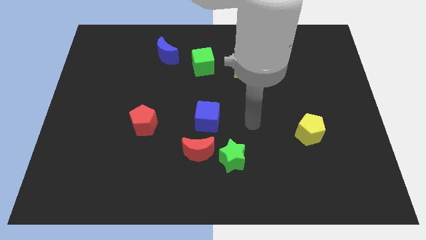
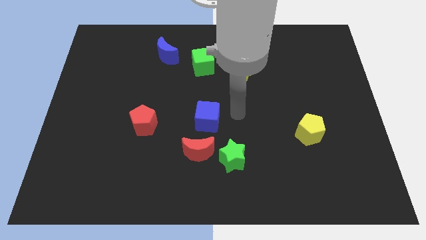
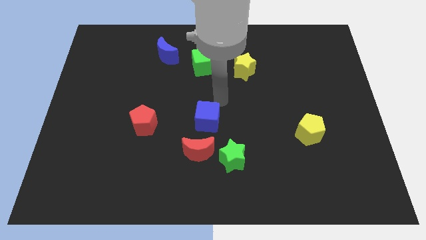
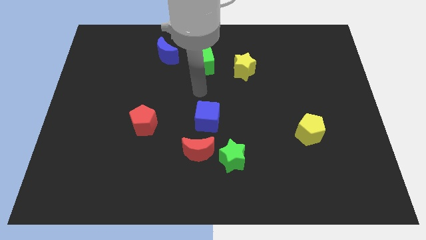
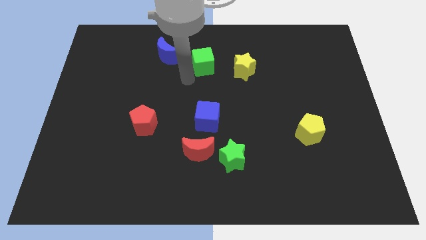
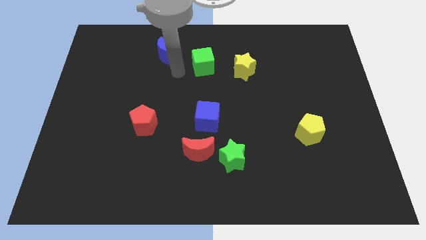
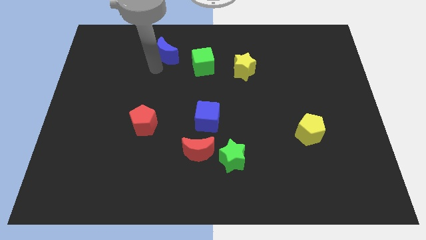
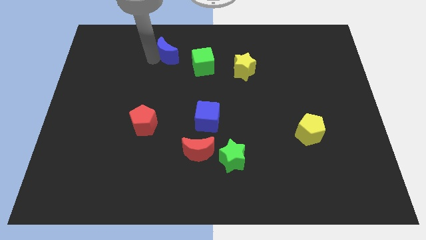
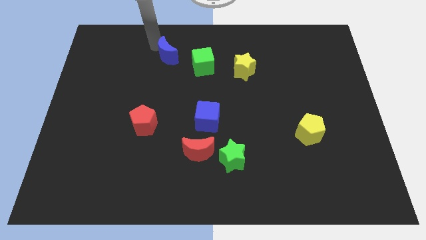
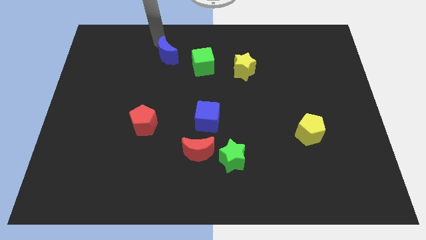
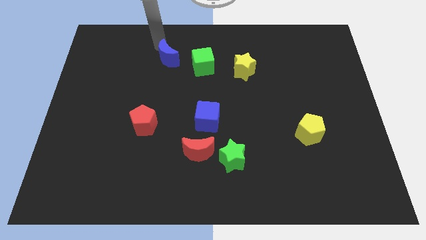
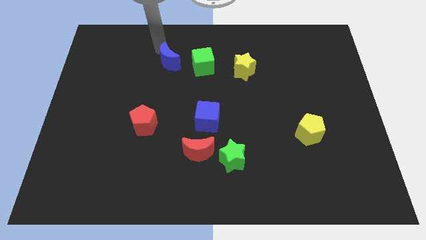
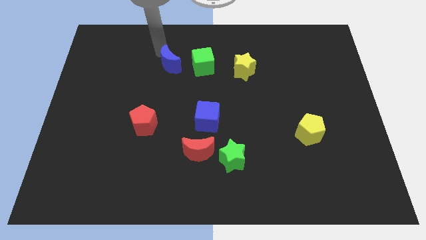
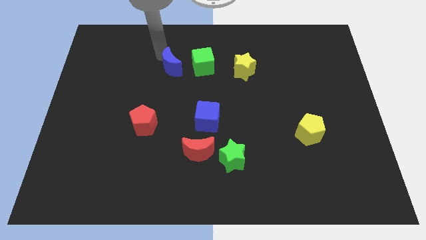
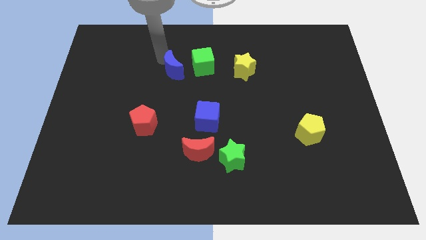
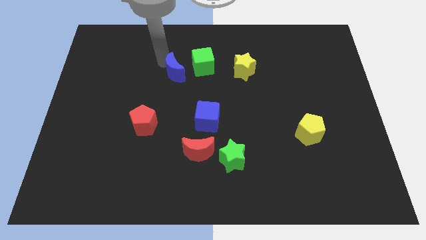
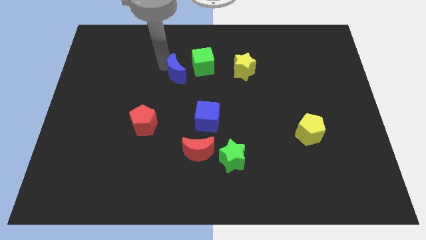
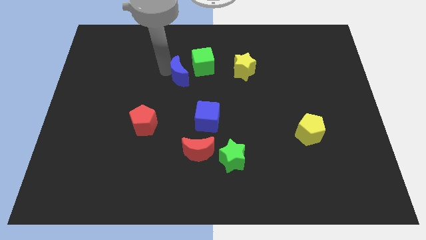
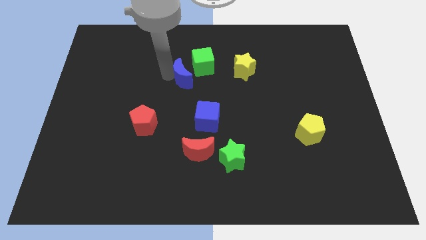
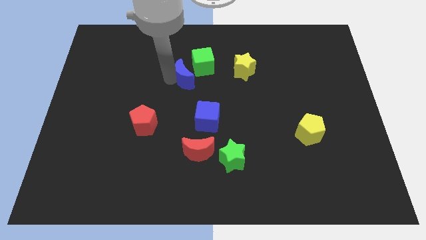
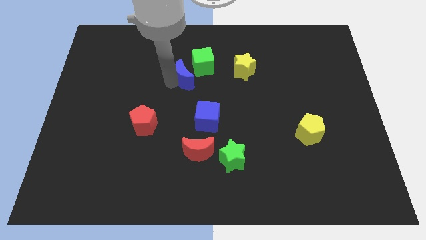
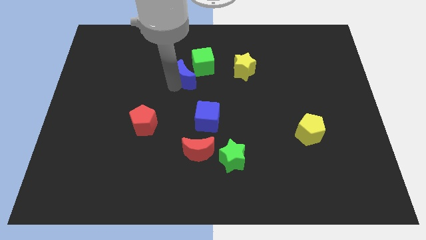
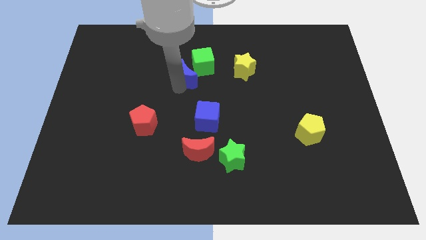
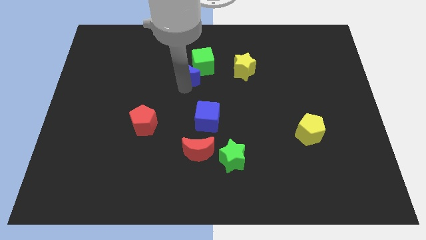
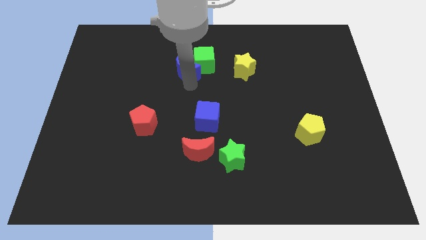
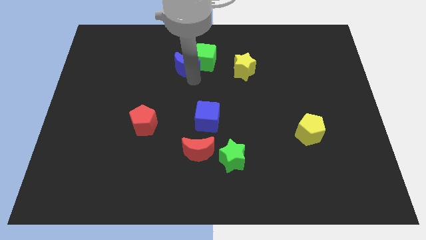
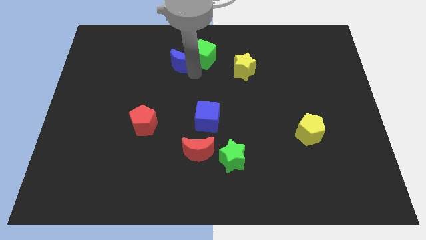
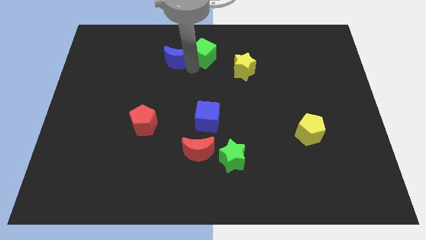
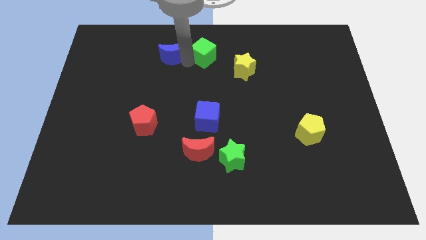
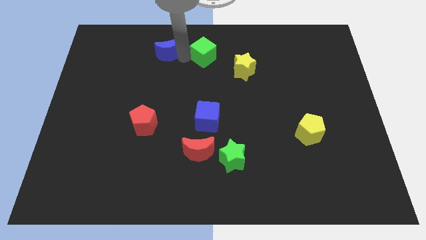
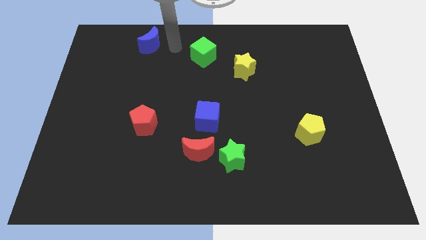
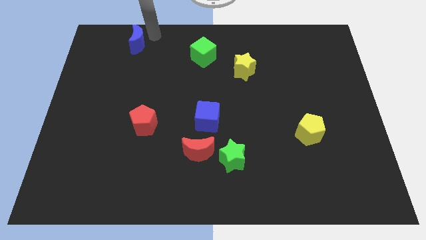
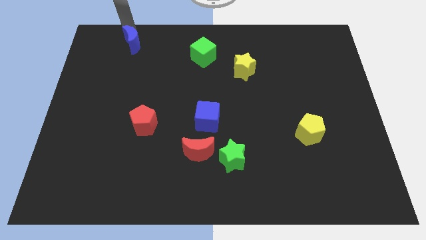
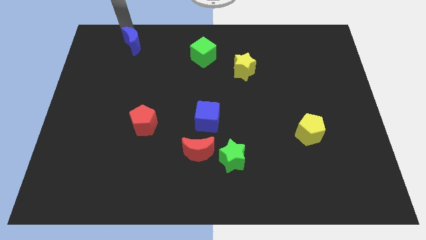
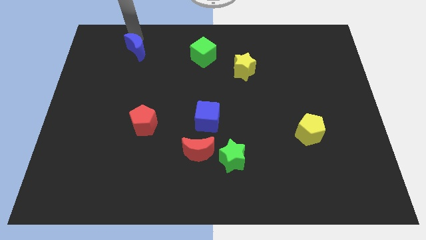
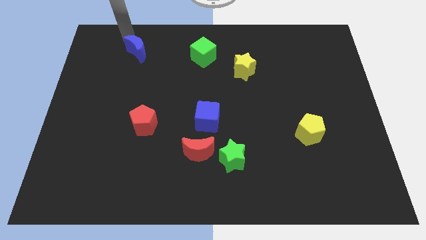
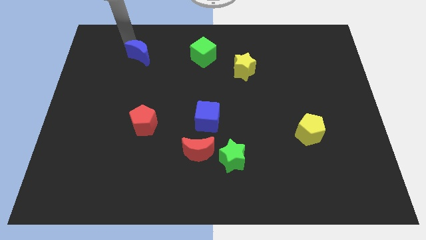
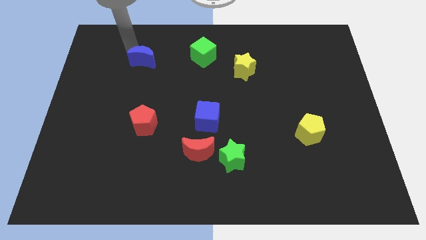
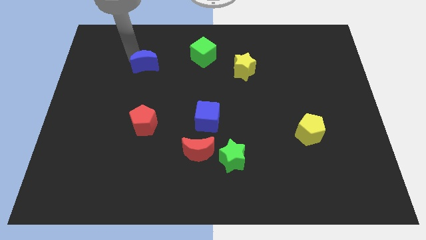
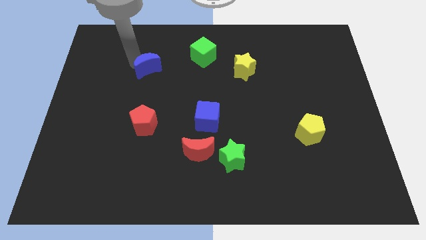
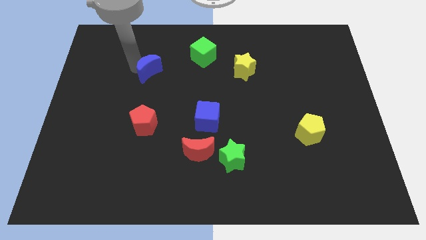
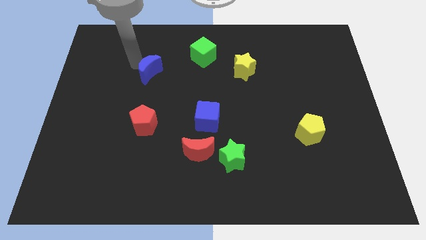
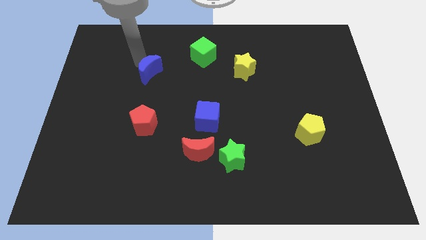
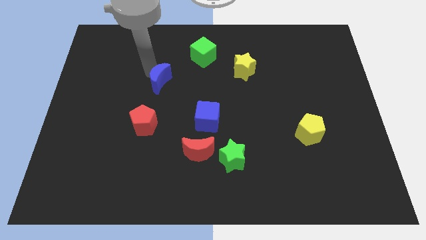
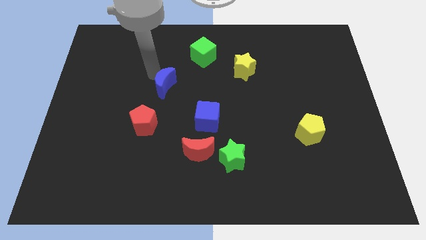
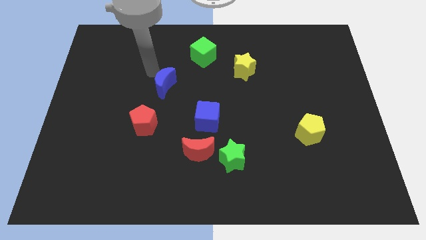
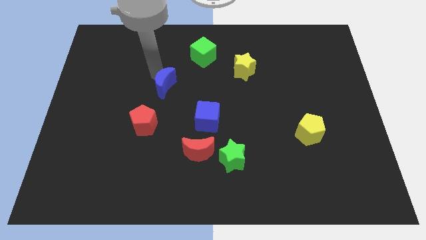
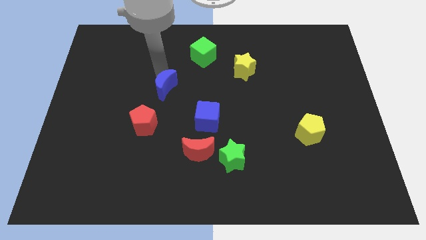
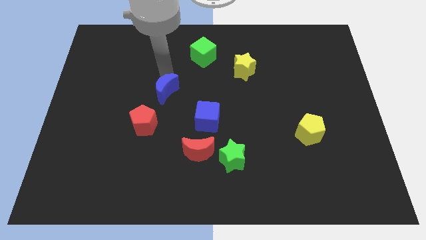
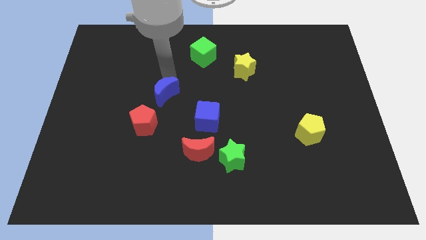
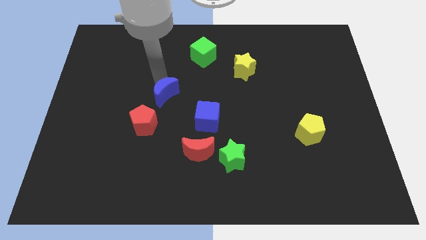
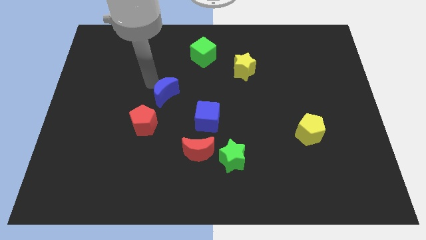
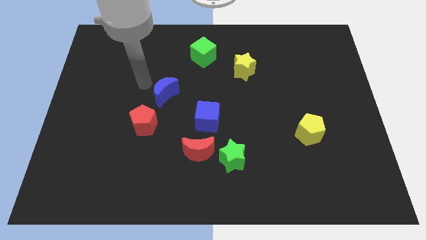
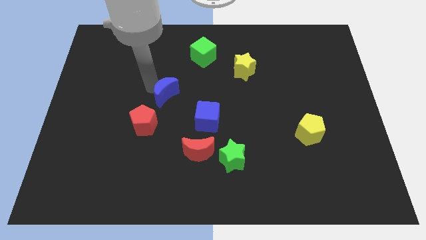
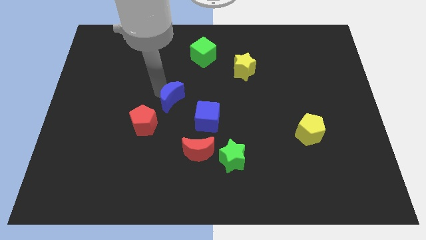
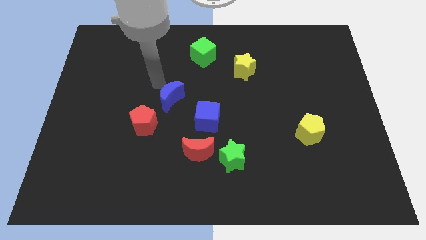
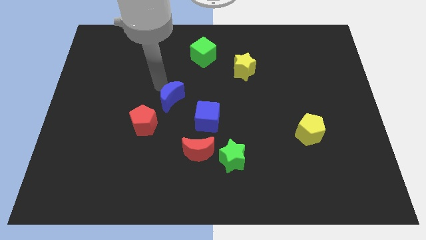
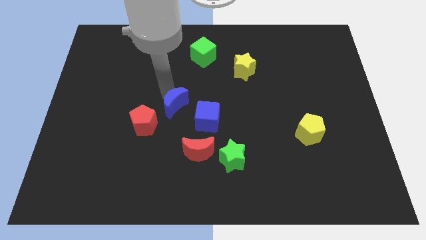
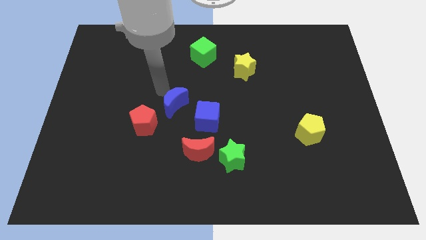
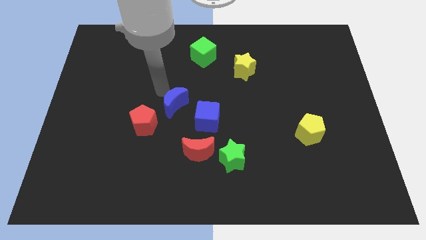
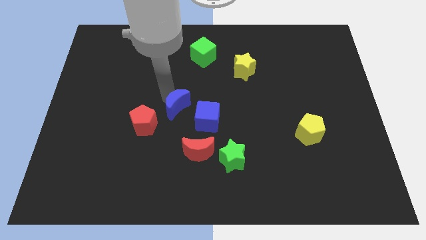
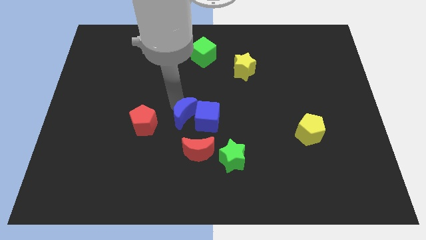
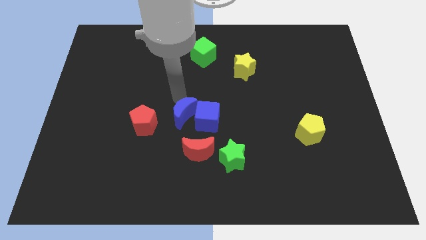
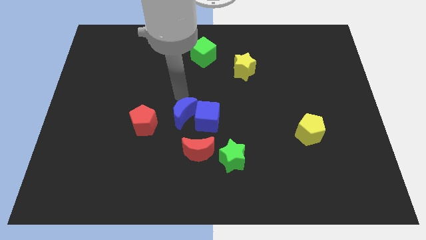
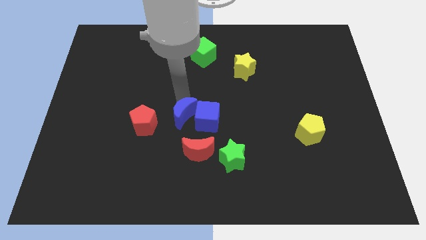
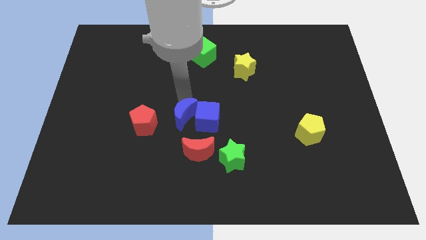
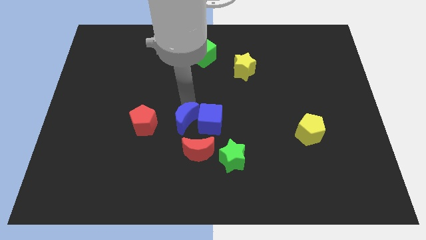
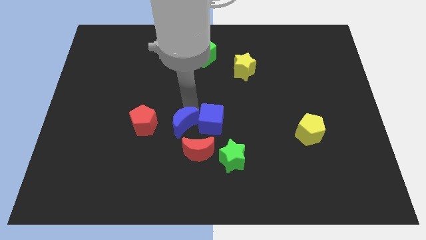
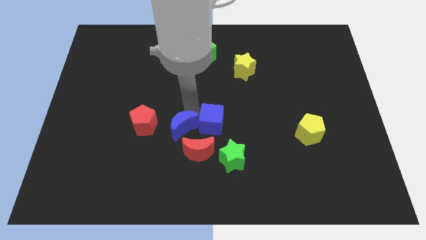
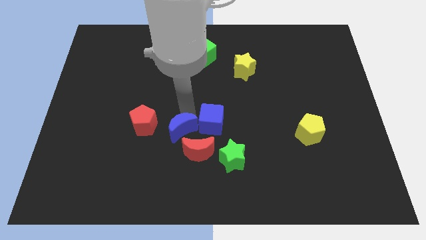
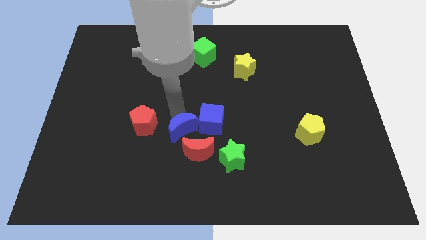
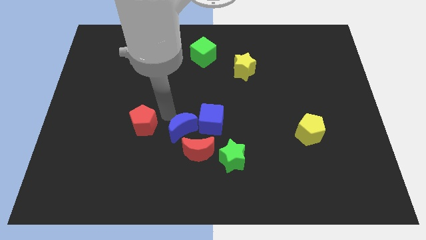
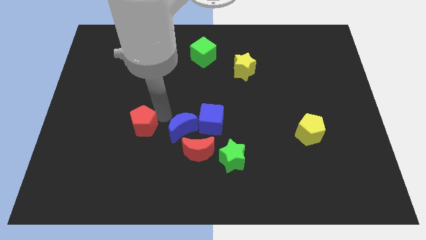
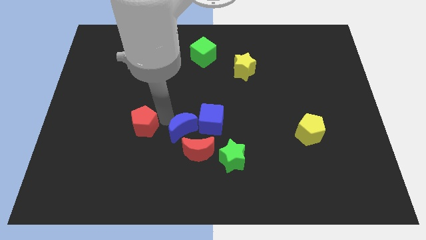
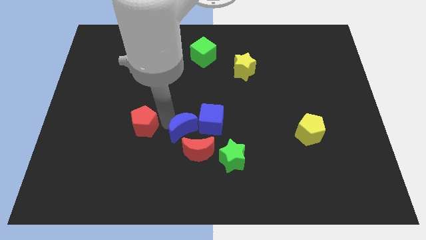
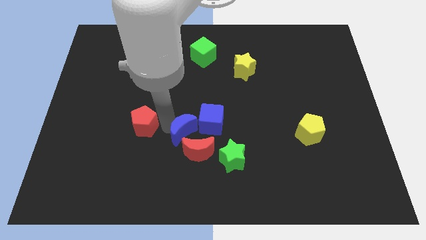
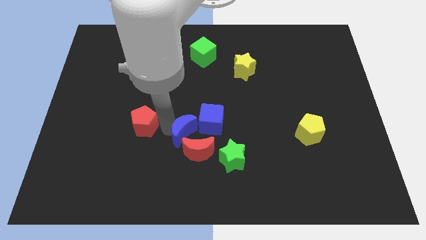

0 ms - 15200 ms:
slide the blue moon to the red moon
